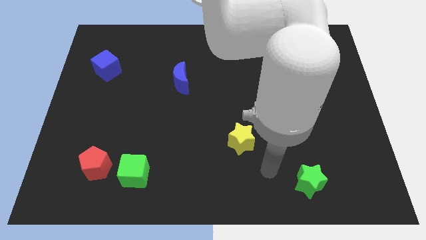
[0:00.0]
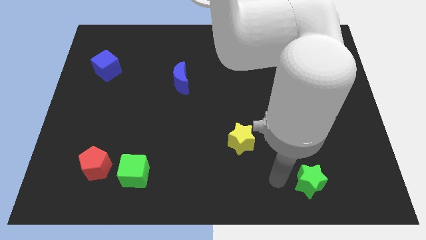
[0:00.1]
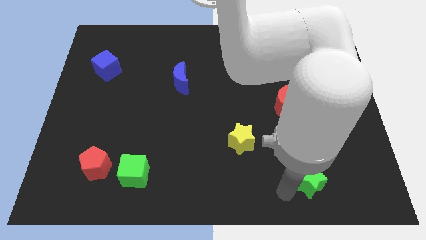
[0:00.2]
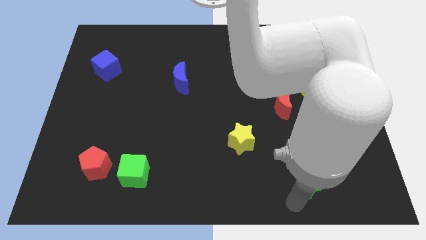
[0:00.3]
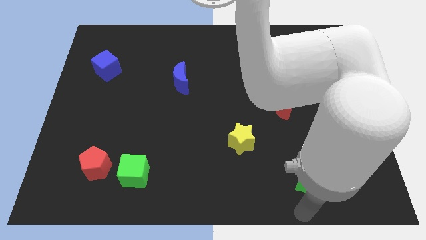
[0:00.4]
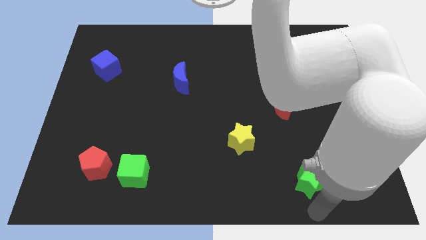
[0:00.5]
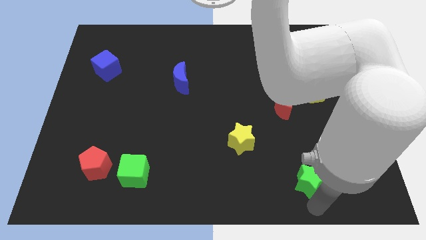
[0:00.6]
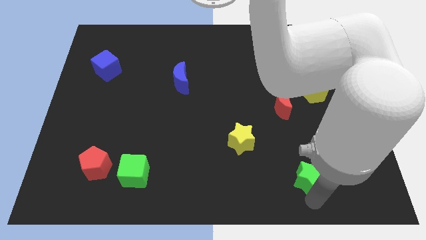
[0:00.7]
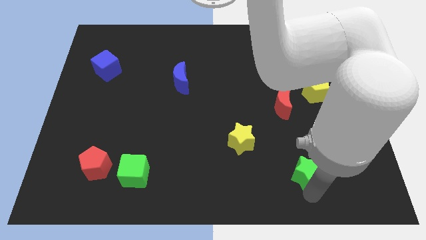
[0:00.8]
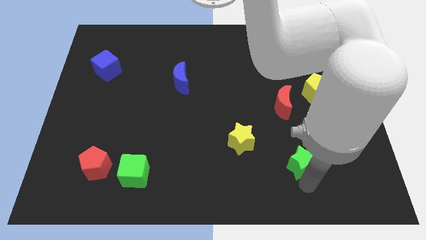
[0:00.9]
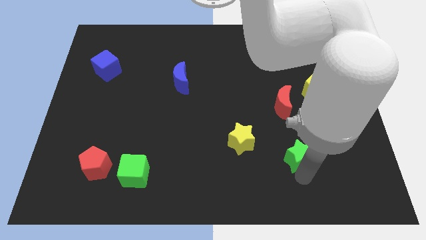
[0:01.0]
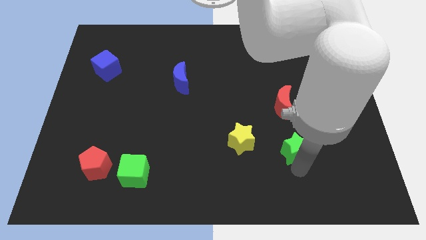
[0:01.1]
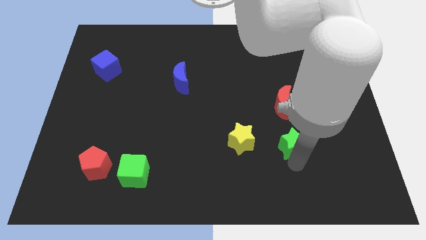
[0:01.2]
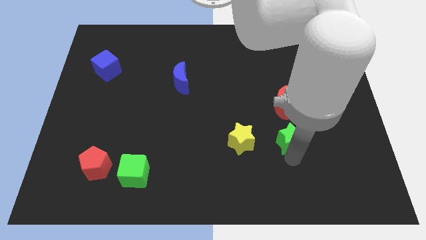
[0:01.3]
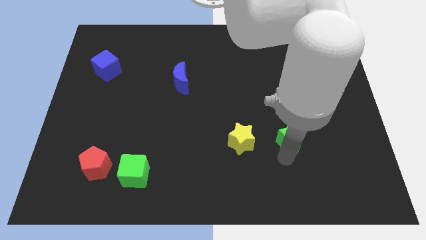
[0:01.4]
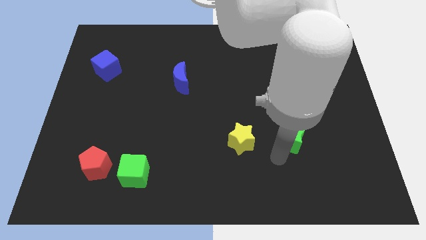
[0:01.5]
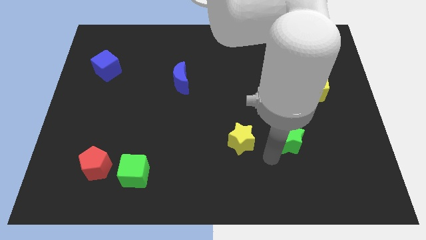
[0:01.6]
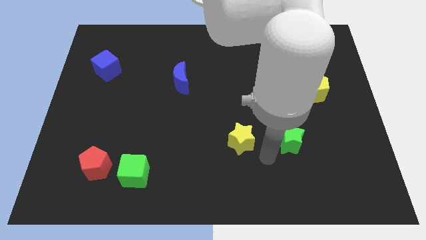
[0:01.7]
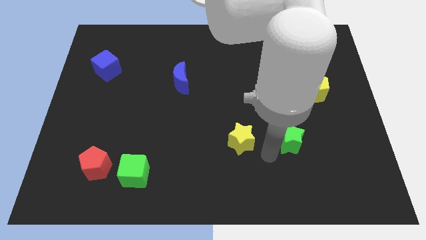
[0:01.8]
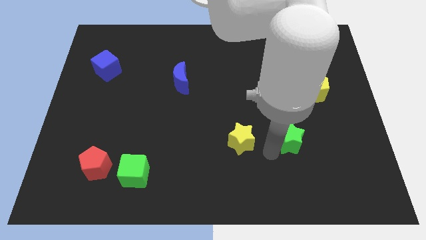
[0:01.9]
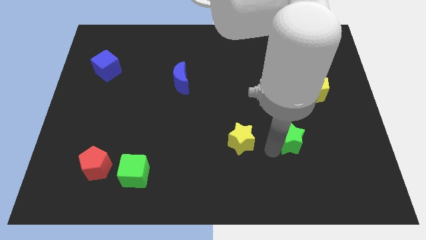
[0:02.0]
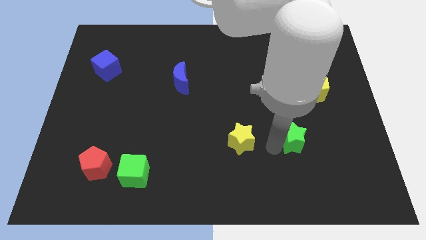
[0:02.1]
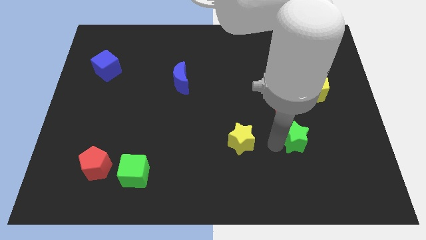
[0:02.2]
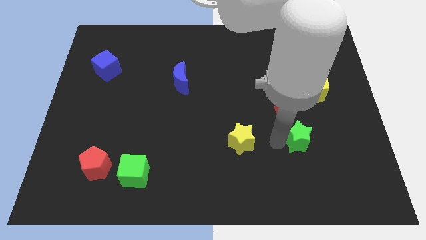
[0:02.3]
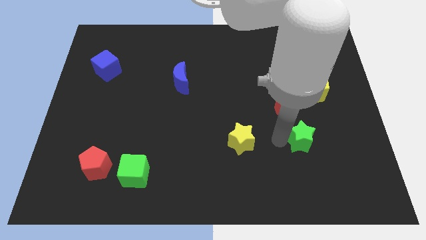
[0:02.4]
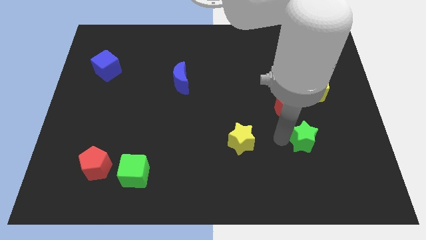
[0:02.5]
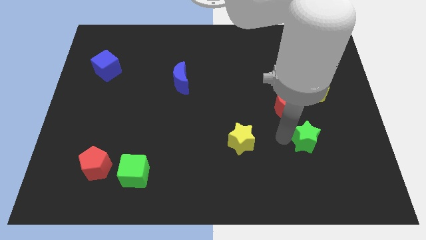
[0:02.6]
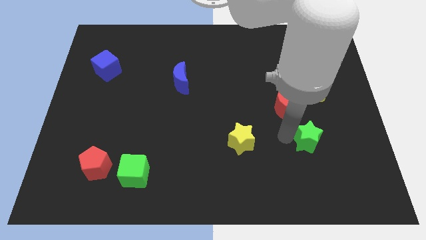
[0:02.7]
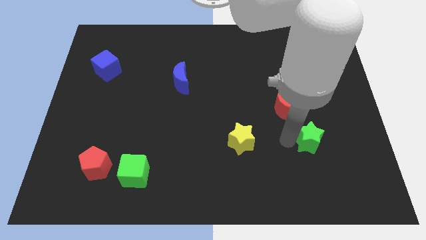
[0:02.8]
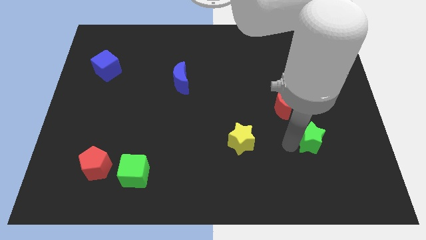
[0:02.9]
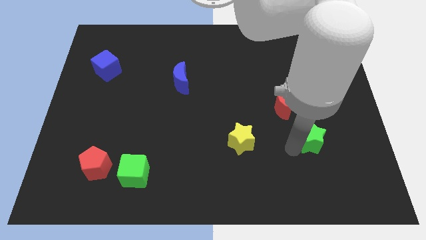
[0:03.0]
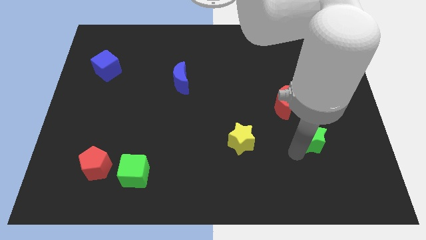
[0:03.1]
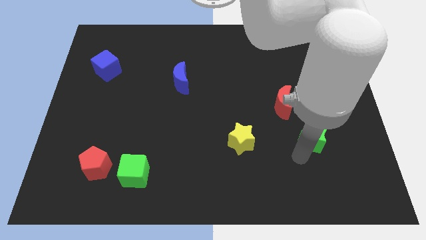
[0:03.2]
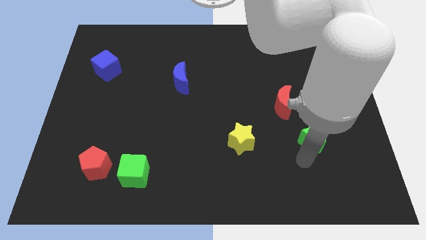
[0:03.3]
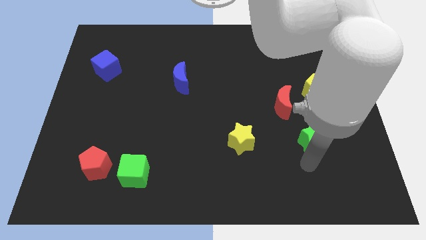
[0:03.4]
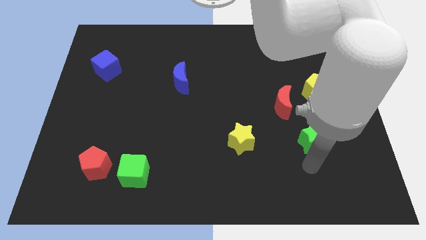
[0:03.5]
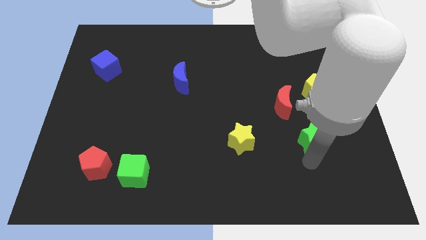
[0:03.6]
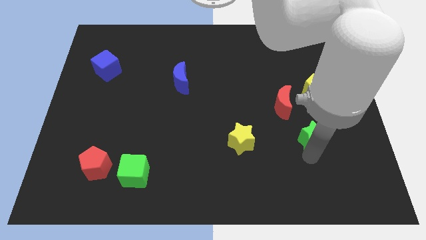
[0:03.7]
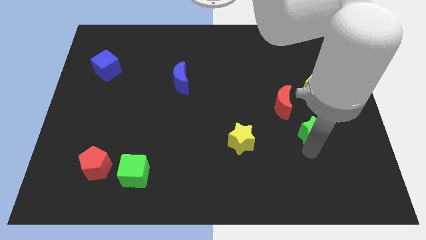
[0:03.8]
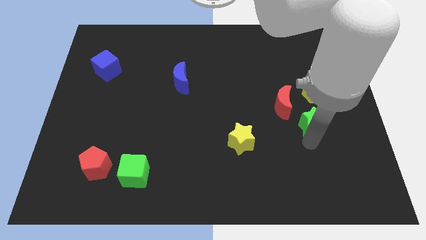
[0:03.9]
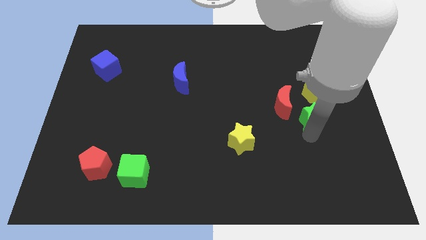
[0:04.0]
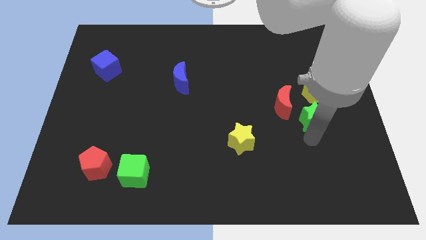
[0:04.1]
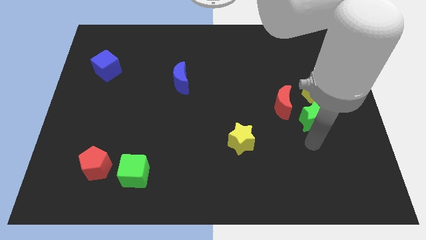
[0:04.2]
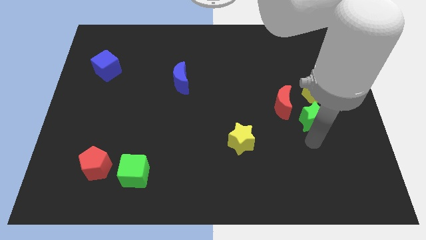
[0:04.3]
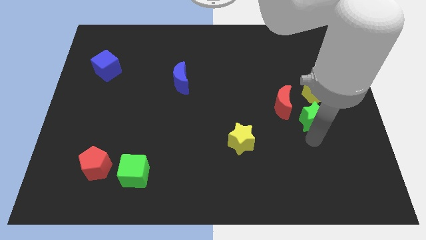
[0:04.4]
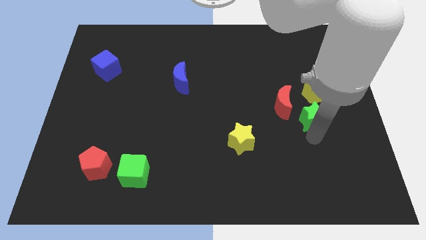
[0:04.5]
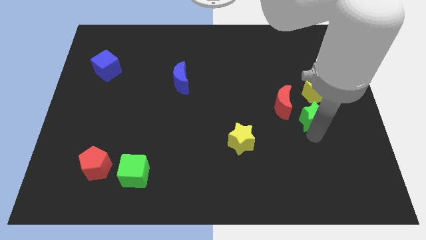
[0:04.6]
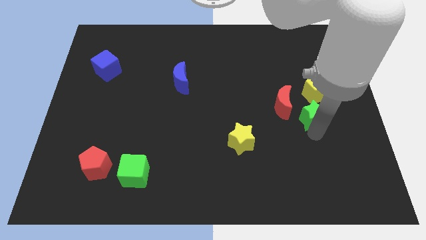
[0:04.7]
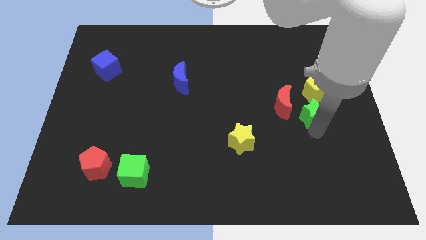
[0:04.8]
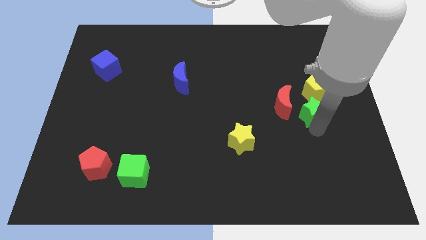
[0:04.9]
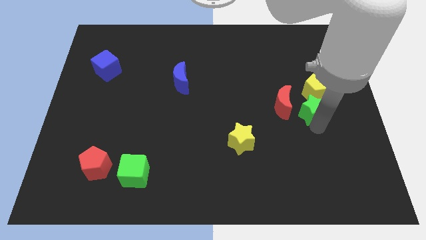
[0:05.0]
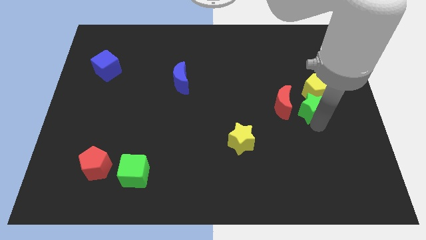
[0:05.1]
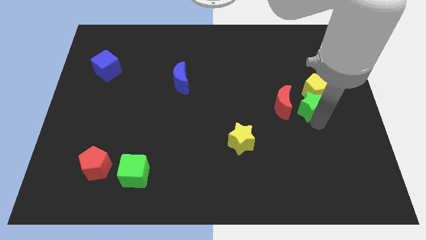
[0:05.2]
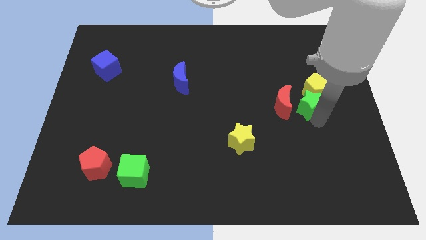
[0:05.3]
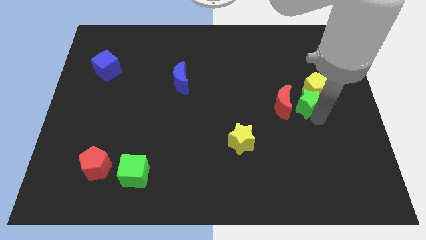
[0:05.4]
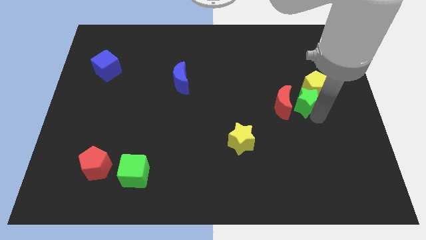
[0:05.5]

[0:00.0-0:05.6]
push the green star up

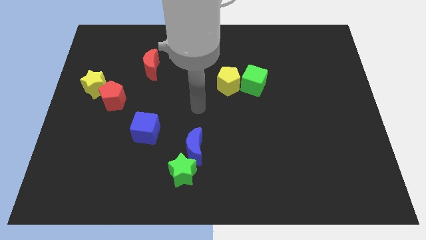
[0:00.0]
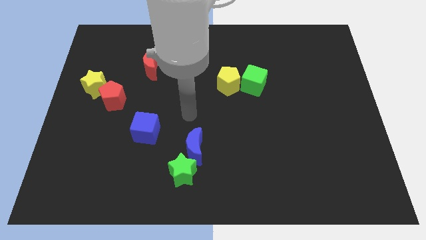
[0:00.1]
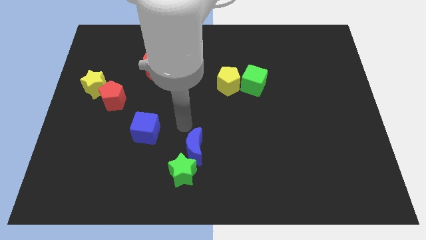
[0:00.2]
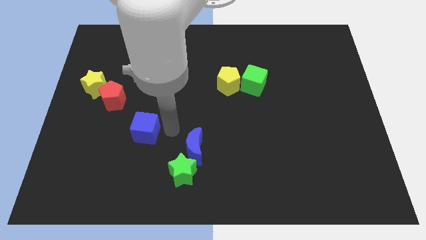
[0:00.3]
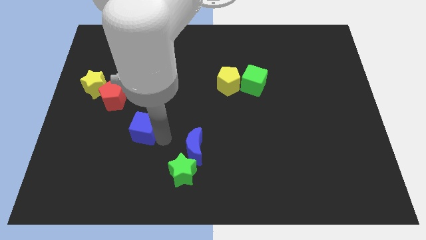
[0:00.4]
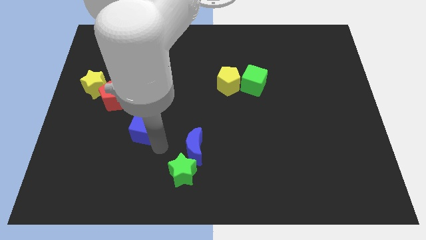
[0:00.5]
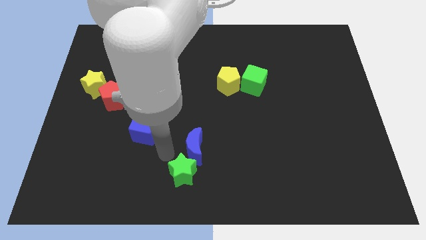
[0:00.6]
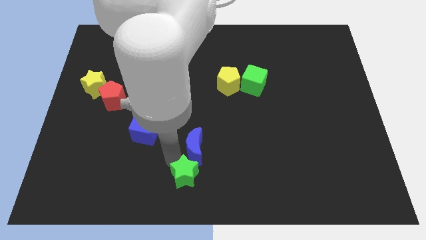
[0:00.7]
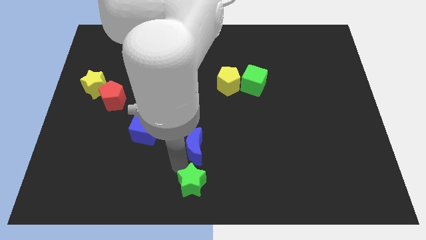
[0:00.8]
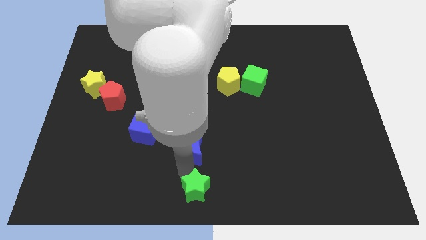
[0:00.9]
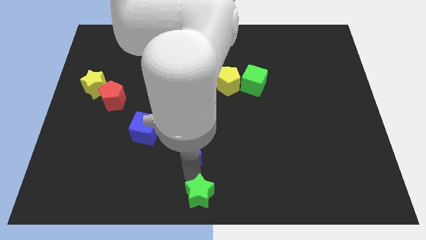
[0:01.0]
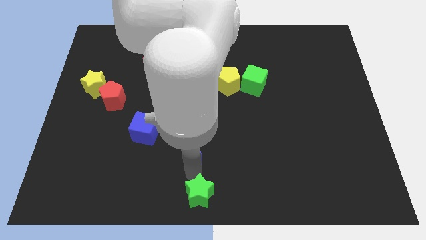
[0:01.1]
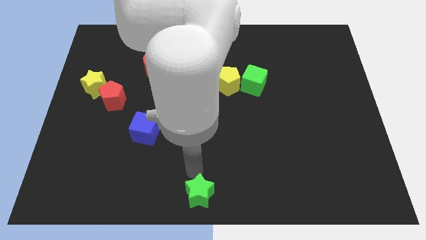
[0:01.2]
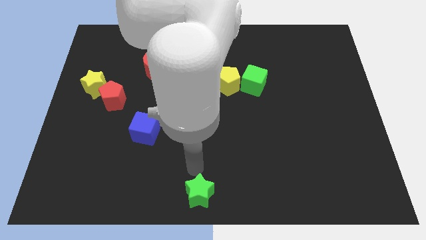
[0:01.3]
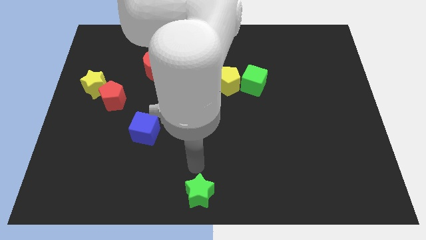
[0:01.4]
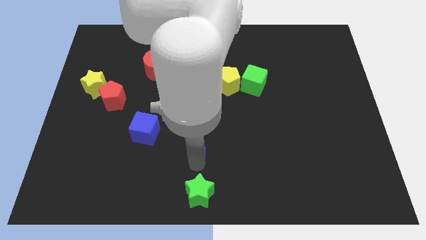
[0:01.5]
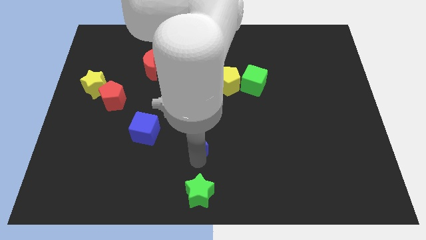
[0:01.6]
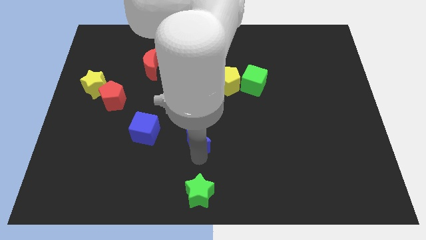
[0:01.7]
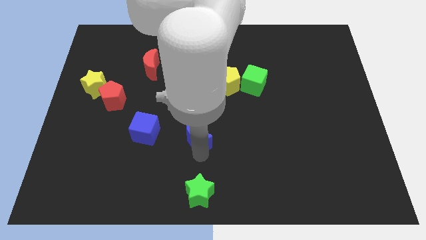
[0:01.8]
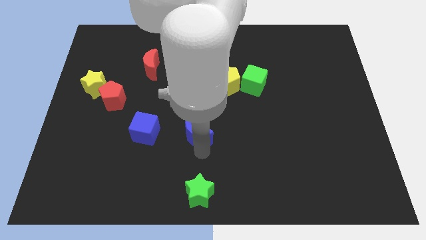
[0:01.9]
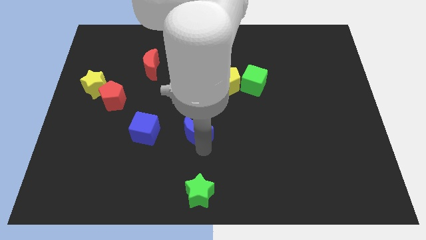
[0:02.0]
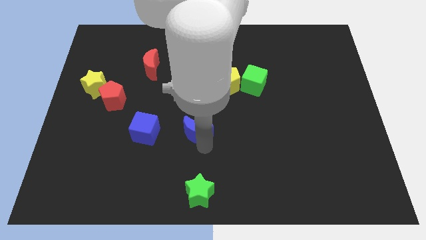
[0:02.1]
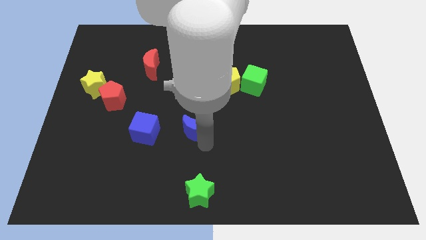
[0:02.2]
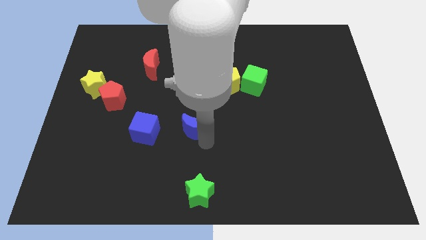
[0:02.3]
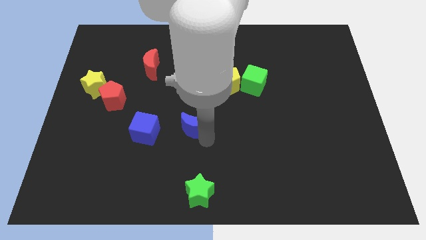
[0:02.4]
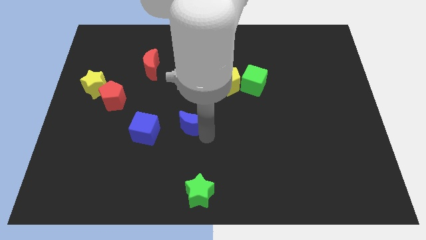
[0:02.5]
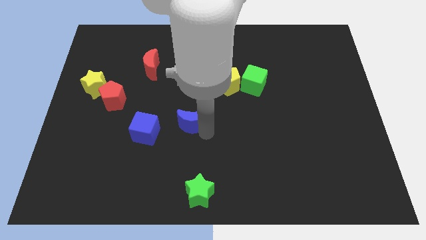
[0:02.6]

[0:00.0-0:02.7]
slightly push the blue moon upwards
